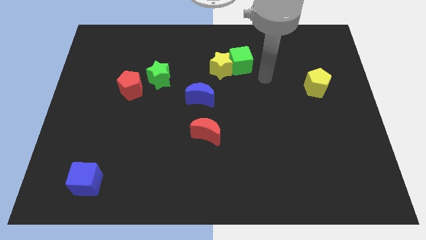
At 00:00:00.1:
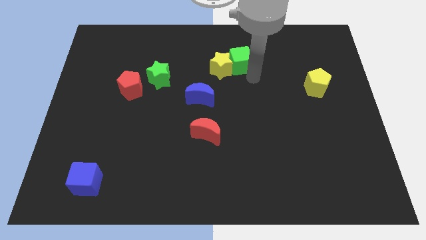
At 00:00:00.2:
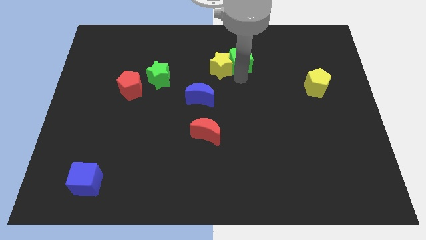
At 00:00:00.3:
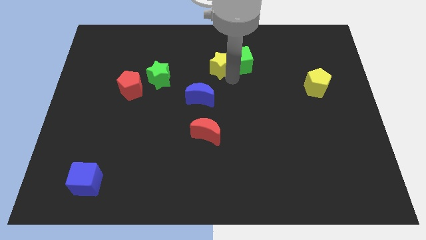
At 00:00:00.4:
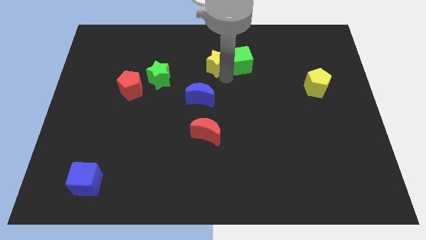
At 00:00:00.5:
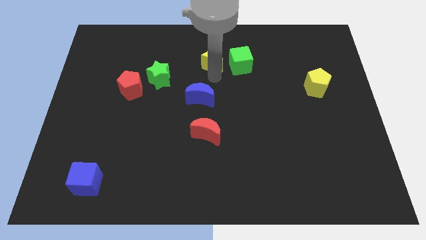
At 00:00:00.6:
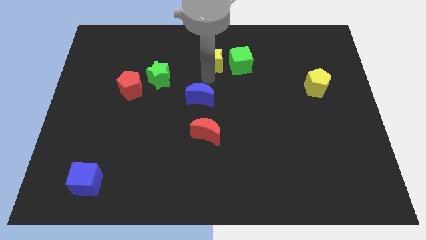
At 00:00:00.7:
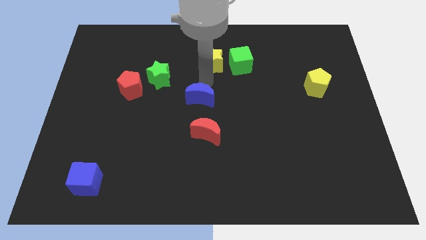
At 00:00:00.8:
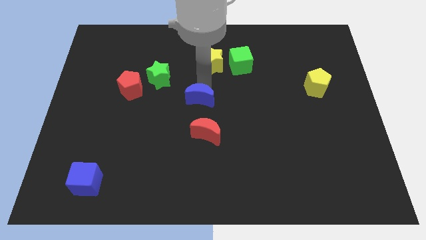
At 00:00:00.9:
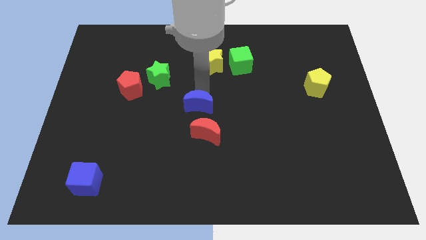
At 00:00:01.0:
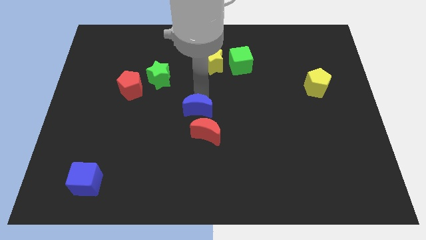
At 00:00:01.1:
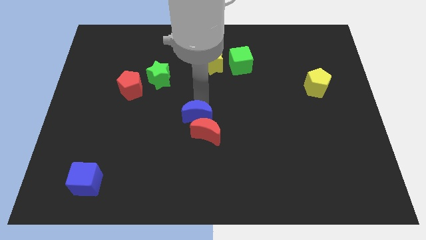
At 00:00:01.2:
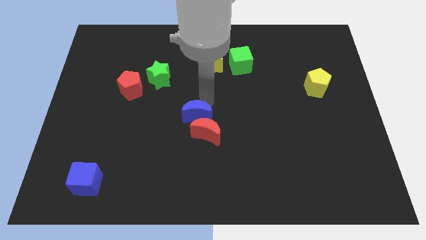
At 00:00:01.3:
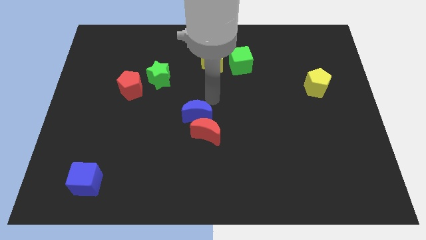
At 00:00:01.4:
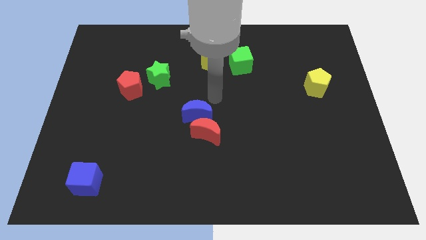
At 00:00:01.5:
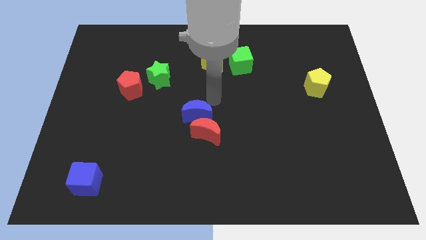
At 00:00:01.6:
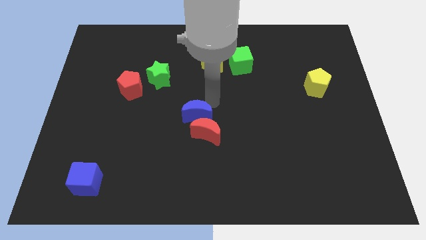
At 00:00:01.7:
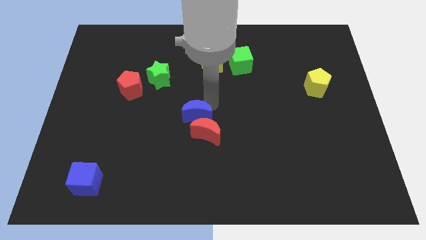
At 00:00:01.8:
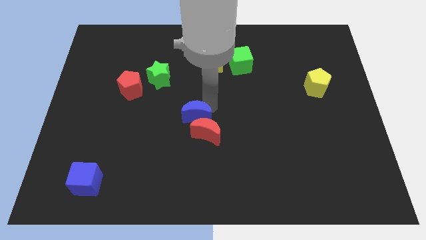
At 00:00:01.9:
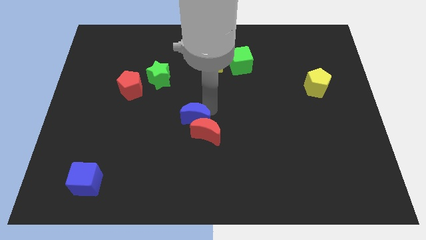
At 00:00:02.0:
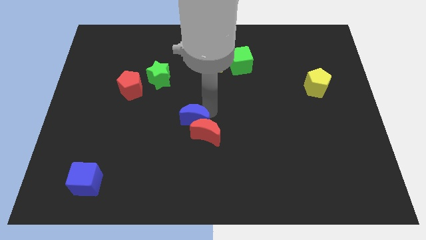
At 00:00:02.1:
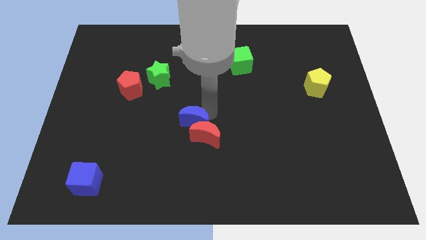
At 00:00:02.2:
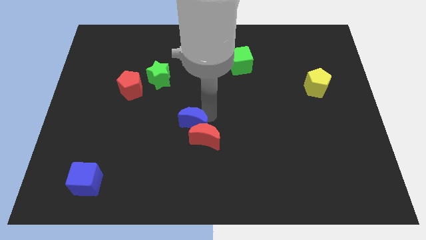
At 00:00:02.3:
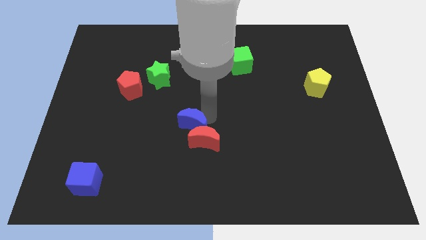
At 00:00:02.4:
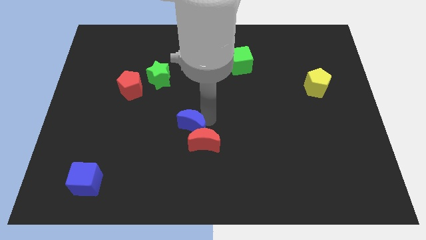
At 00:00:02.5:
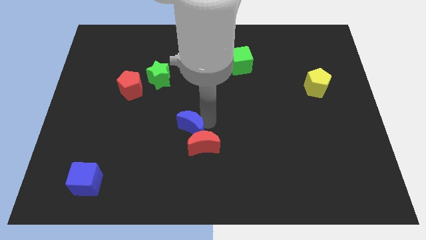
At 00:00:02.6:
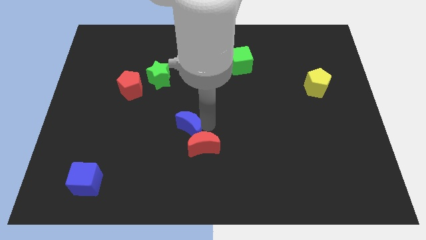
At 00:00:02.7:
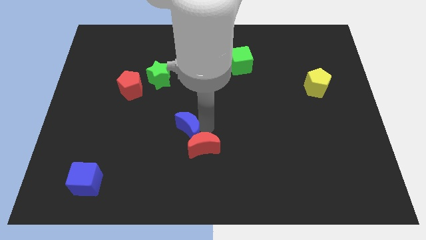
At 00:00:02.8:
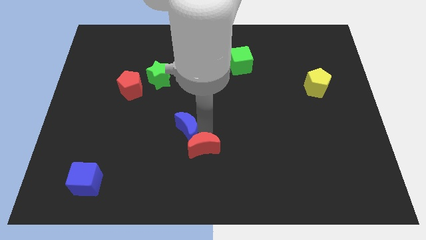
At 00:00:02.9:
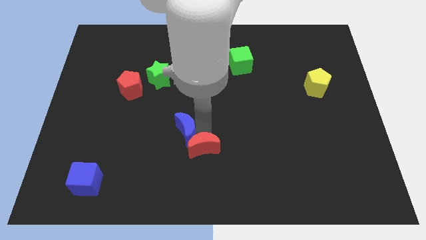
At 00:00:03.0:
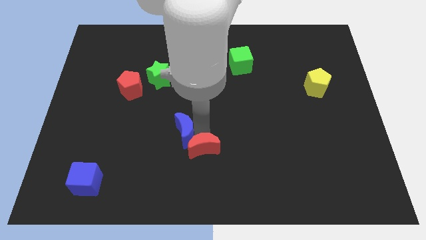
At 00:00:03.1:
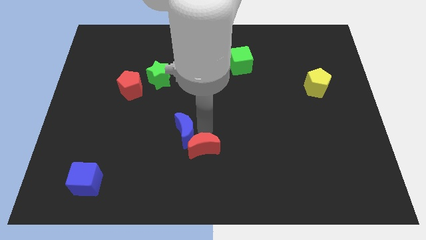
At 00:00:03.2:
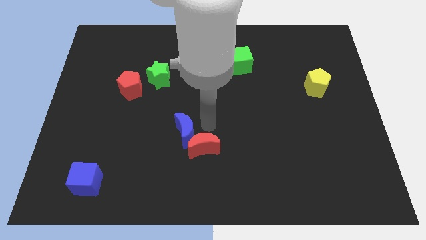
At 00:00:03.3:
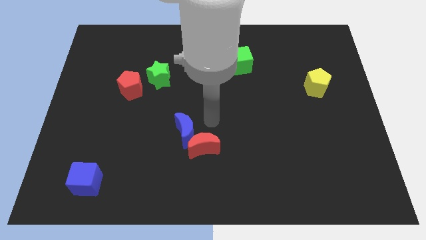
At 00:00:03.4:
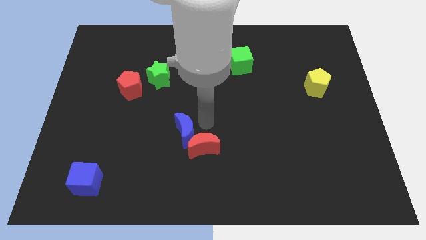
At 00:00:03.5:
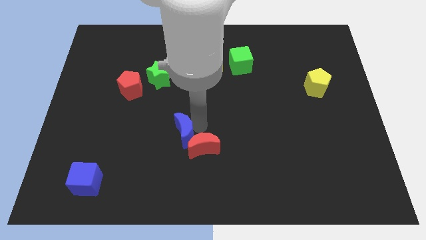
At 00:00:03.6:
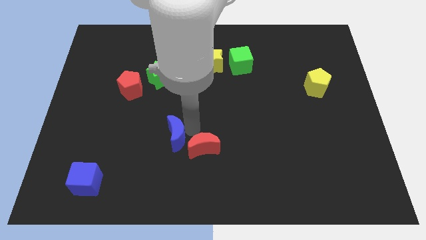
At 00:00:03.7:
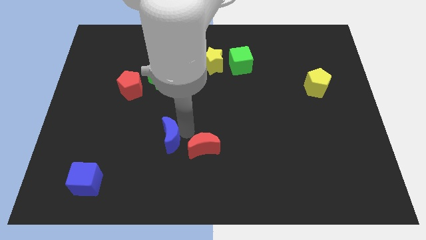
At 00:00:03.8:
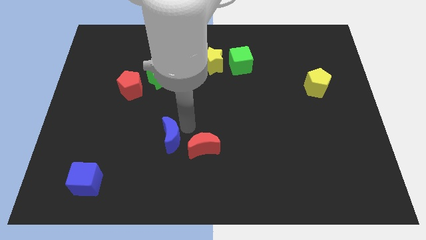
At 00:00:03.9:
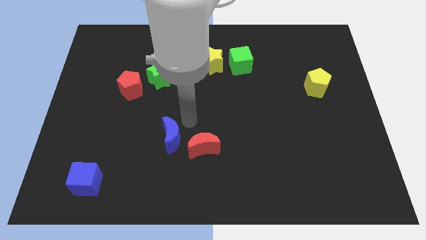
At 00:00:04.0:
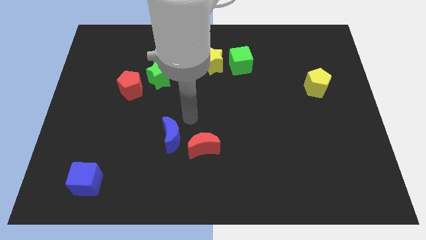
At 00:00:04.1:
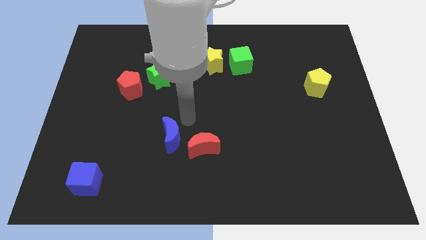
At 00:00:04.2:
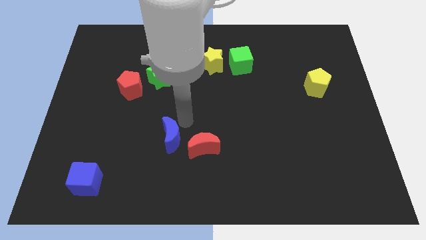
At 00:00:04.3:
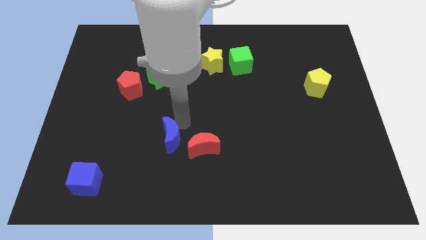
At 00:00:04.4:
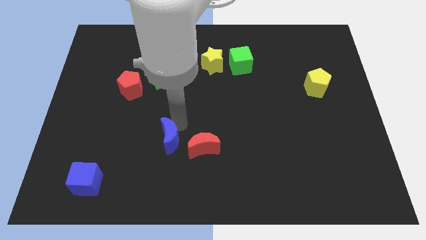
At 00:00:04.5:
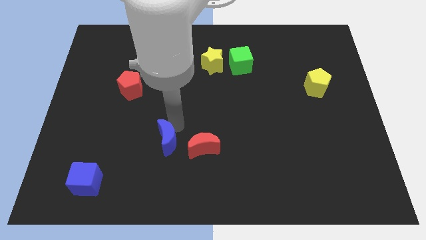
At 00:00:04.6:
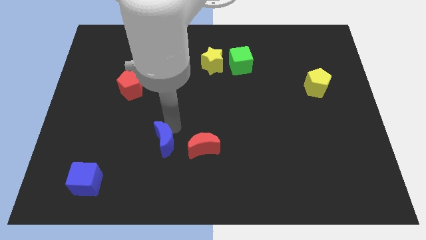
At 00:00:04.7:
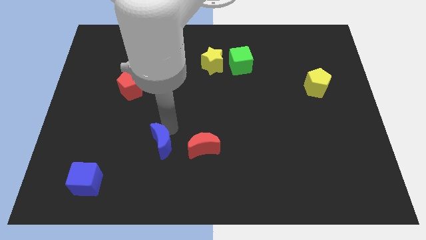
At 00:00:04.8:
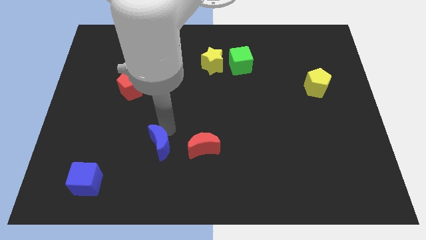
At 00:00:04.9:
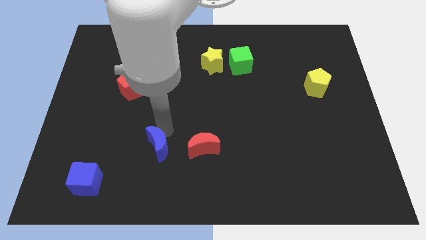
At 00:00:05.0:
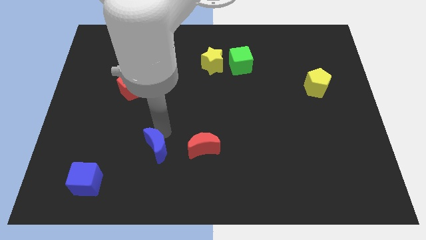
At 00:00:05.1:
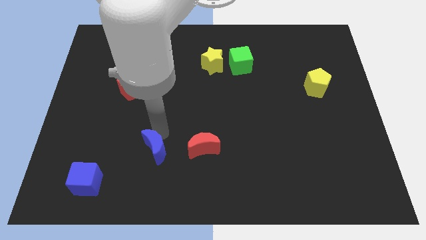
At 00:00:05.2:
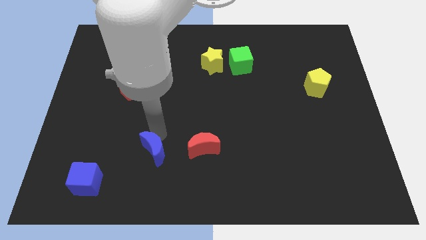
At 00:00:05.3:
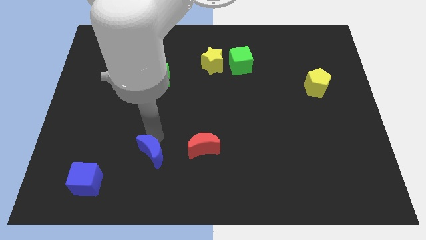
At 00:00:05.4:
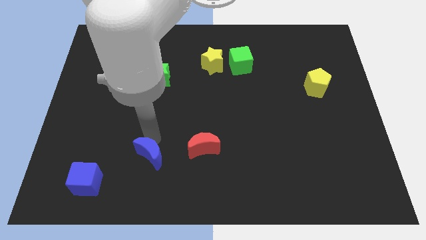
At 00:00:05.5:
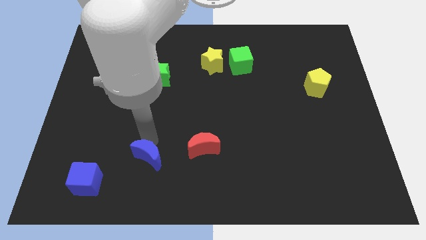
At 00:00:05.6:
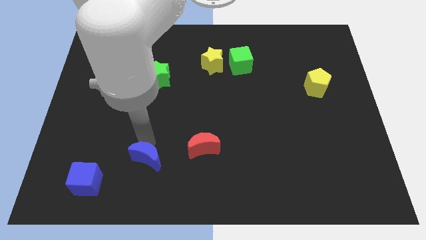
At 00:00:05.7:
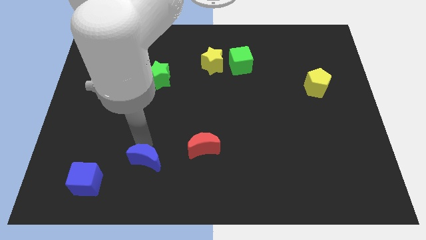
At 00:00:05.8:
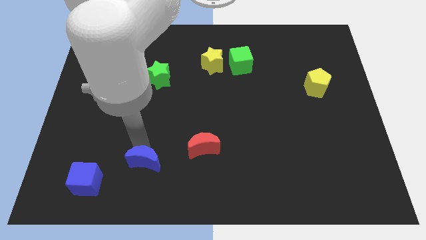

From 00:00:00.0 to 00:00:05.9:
put the blue moon just right of the blue cube
